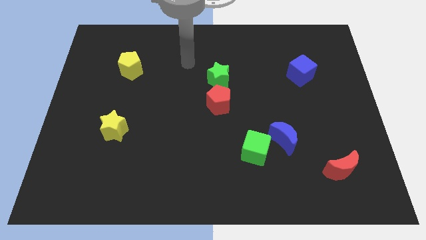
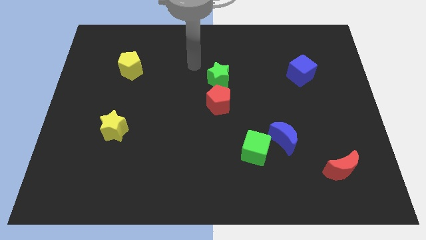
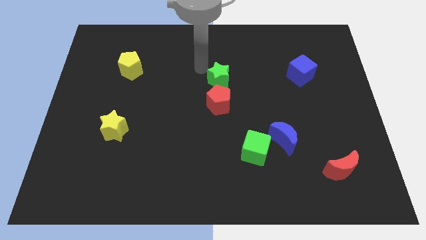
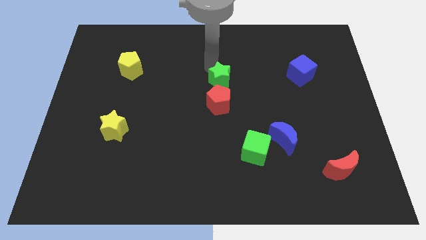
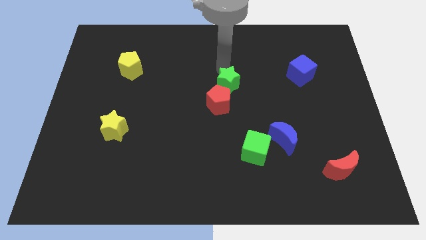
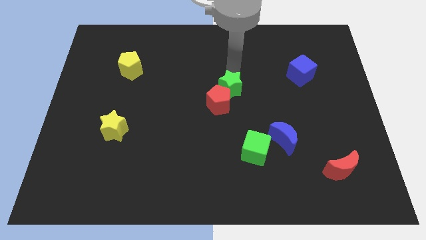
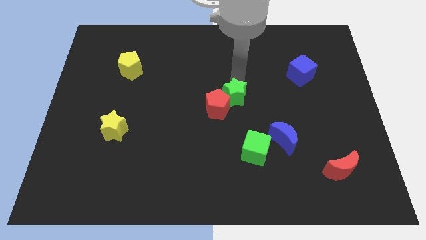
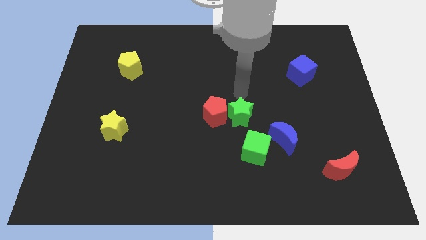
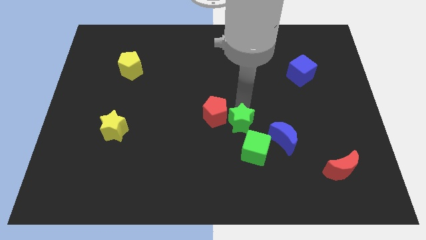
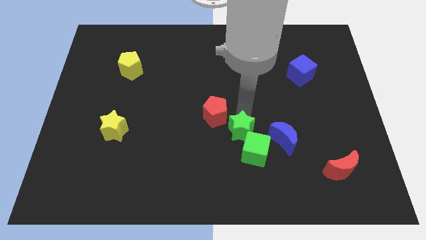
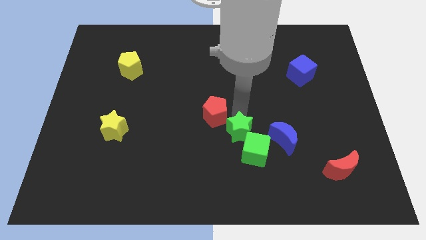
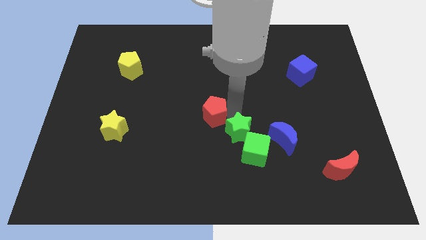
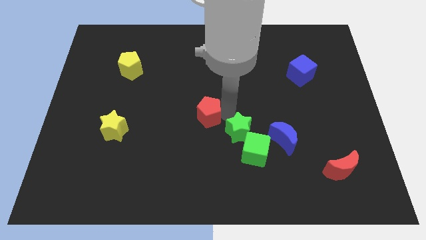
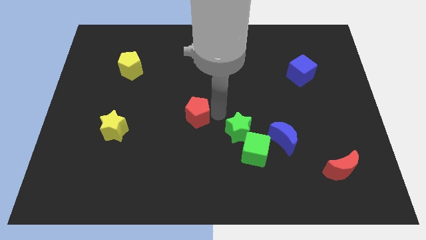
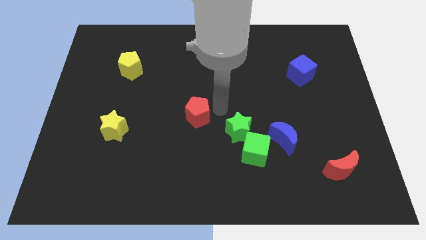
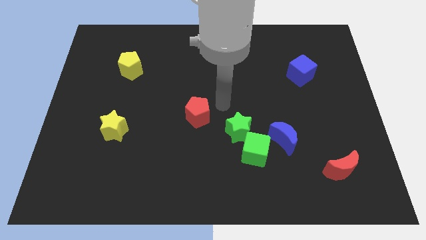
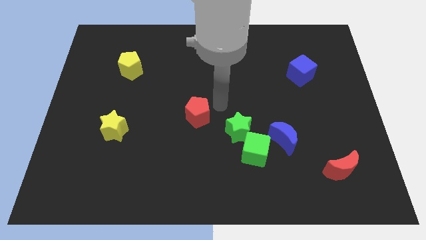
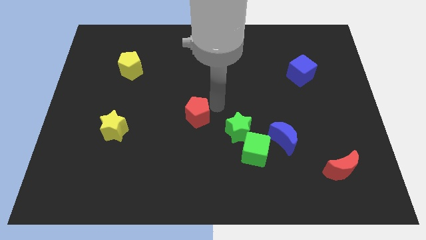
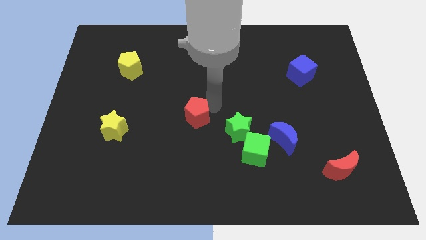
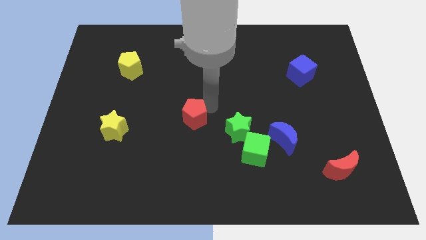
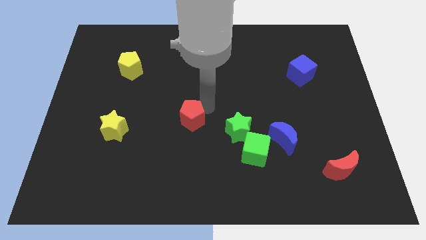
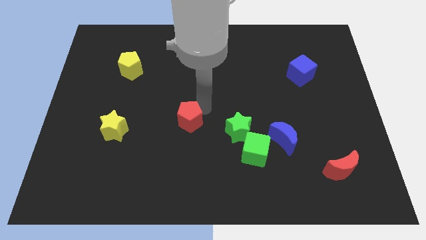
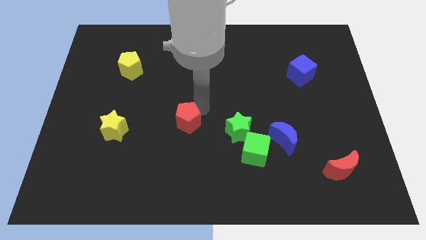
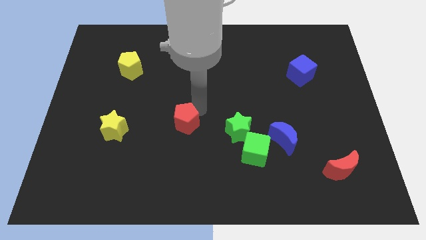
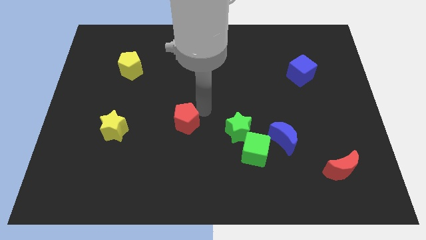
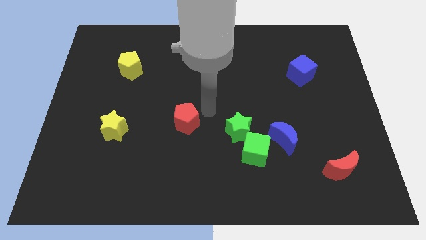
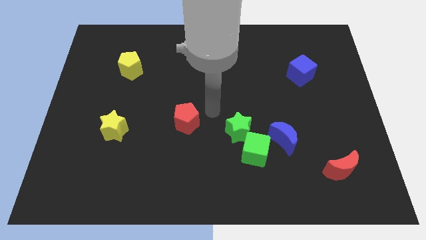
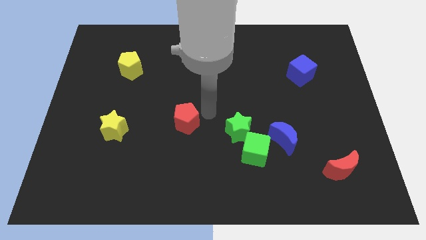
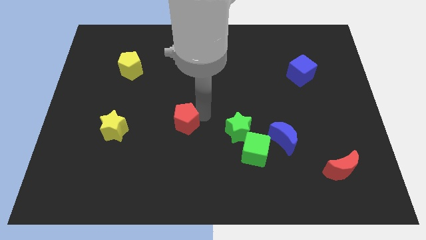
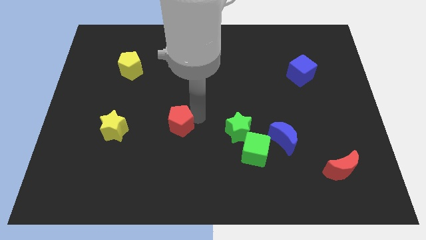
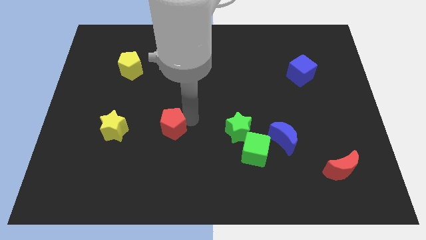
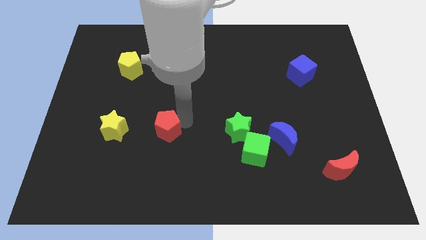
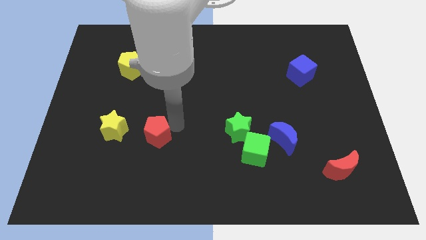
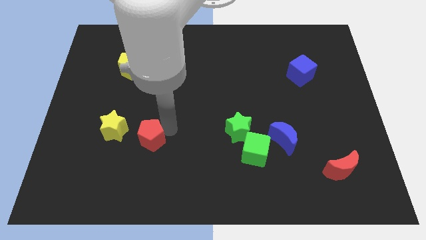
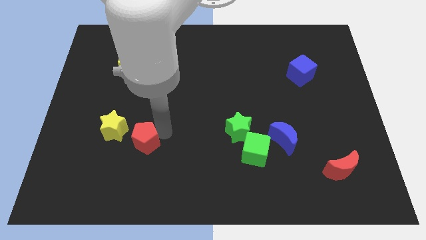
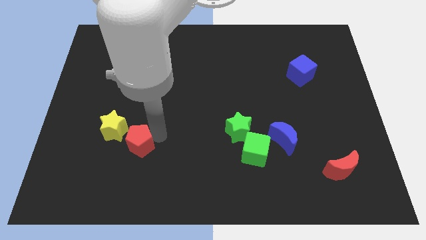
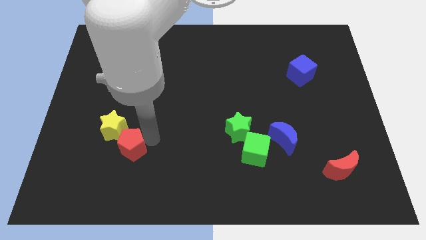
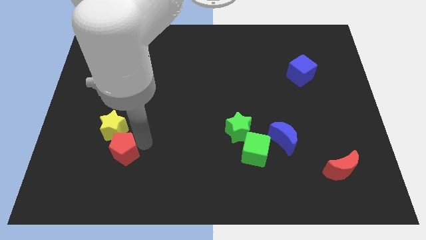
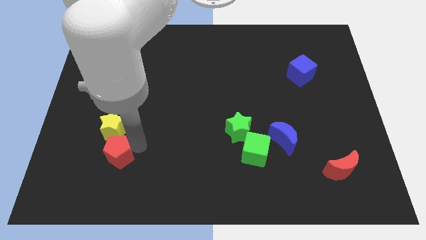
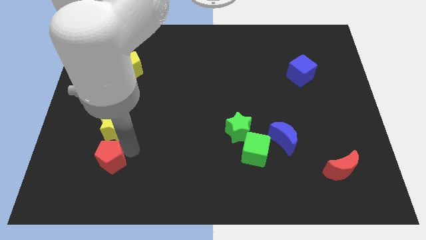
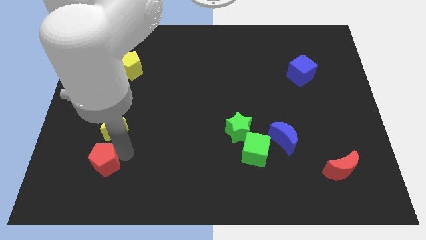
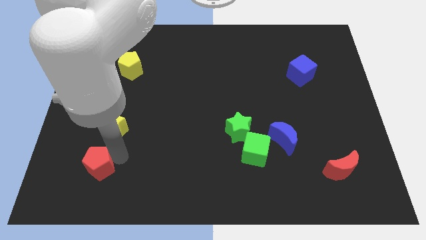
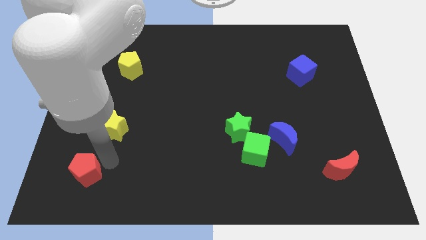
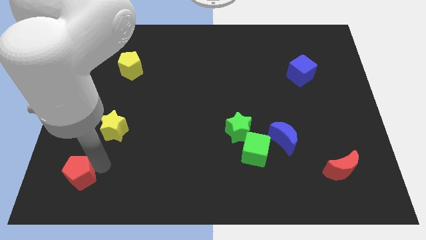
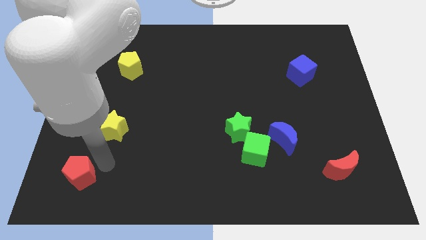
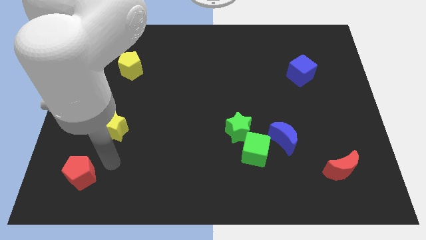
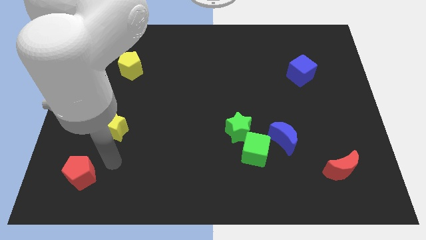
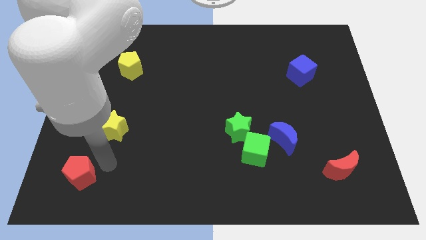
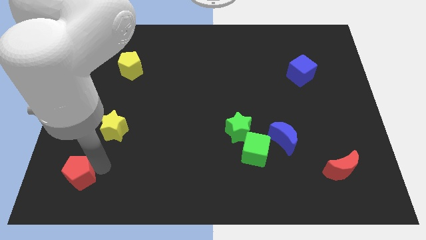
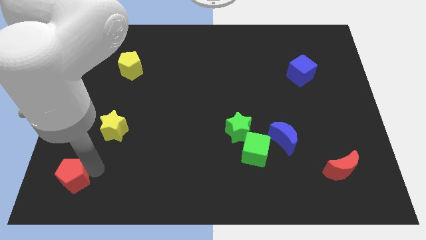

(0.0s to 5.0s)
slide the red pentagon to the bottom left corner

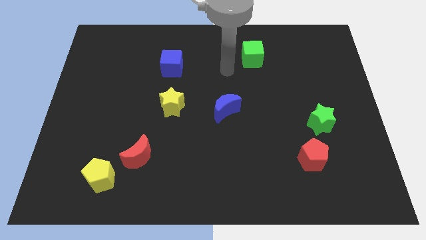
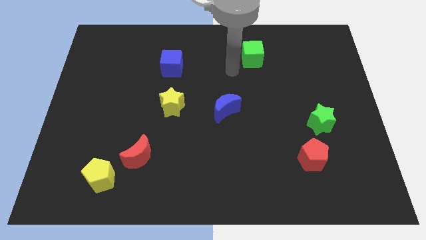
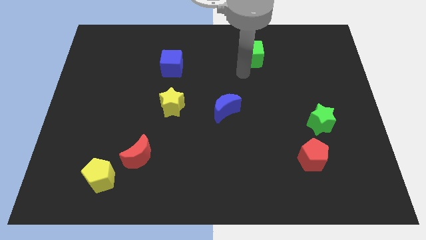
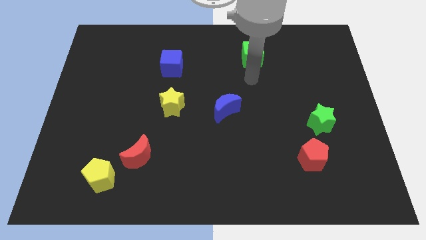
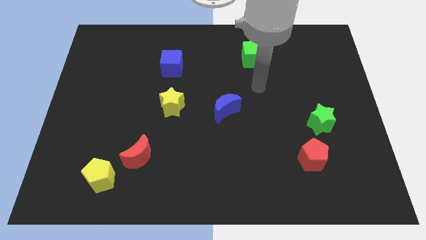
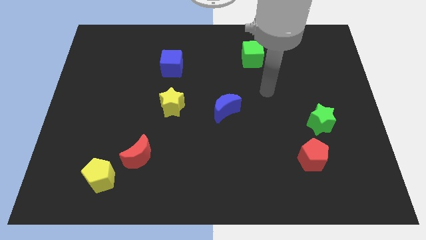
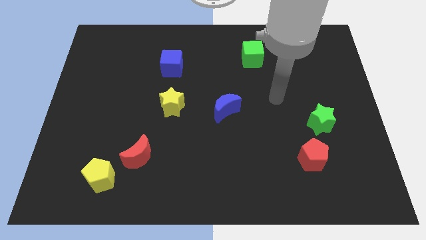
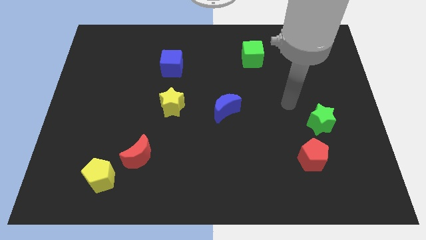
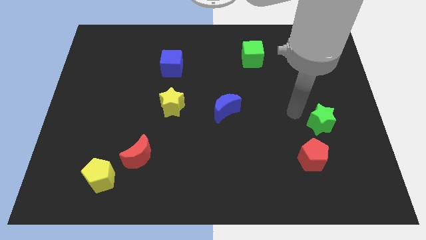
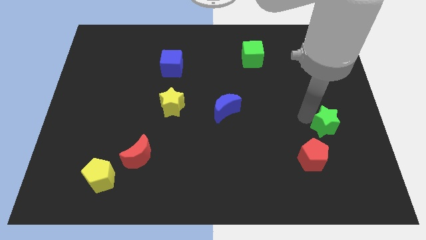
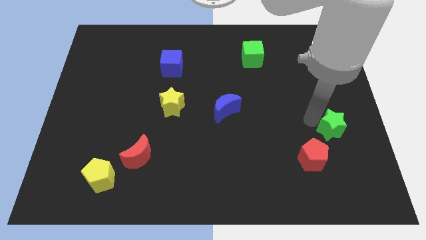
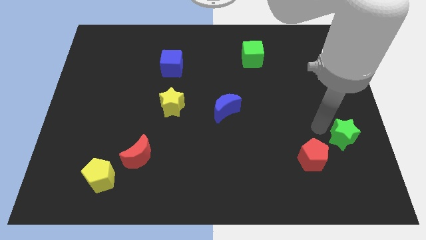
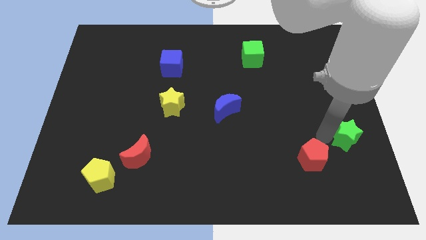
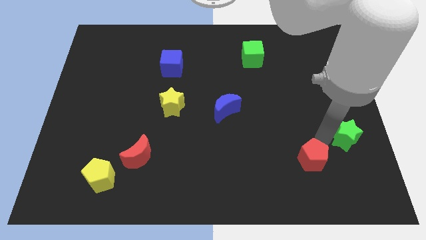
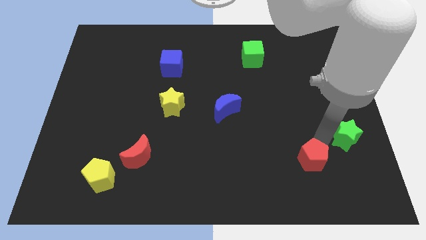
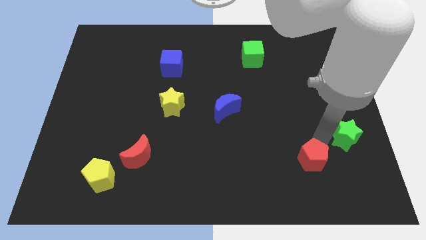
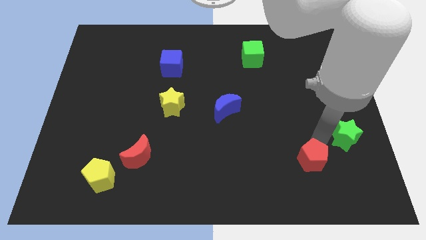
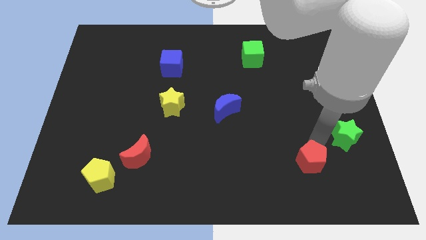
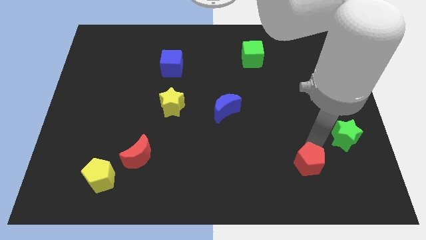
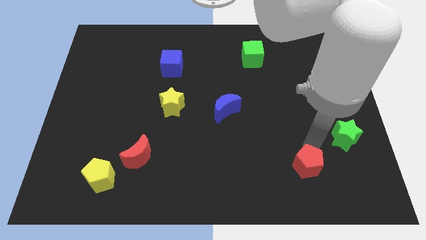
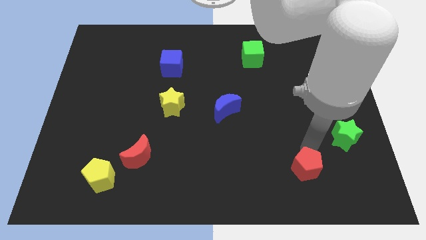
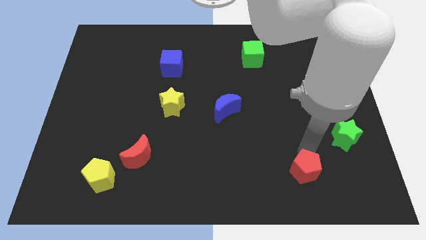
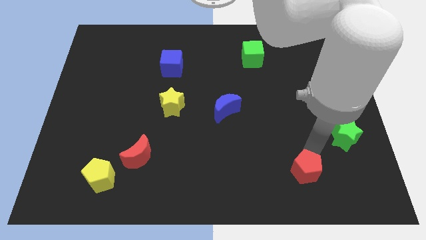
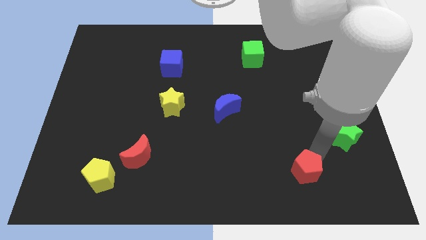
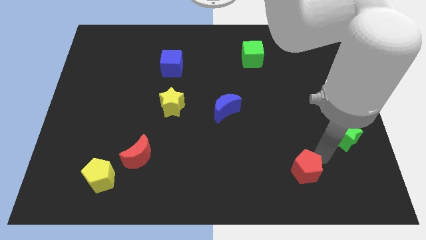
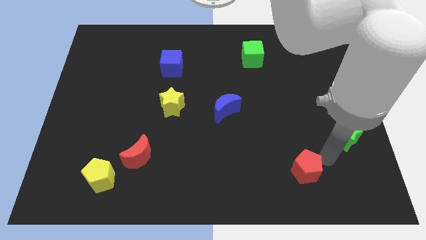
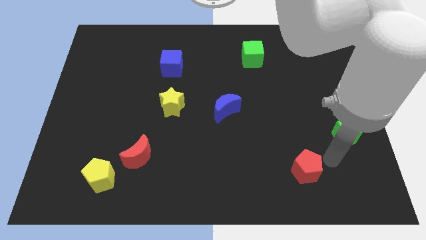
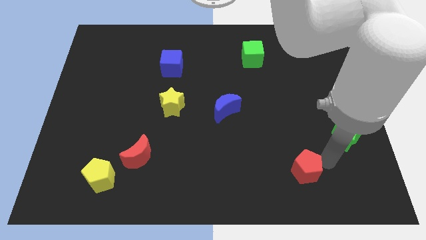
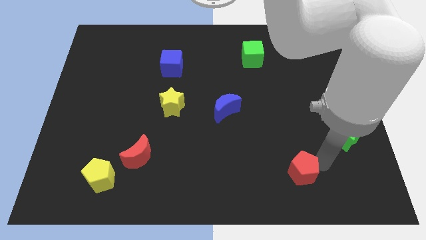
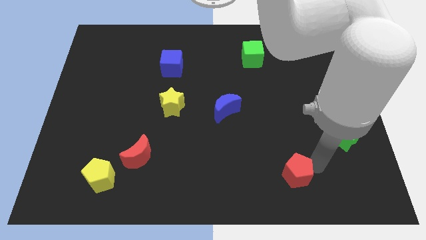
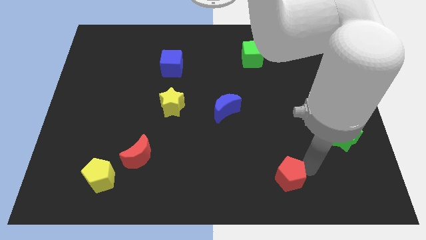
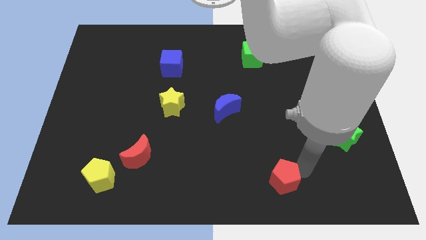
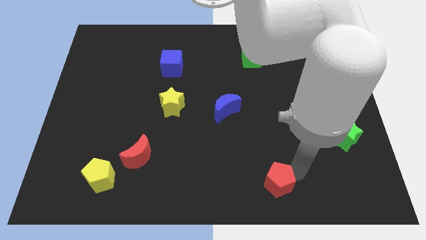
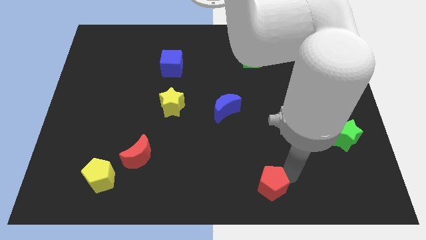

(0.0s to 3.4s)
push the red pentagon to the bottom
